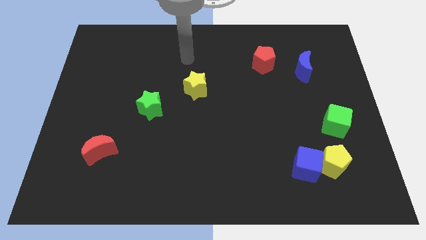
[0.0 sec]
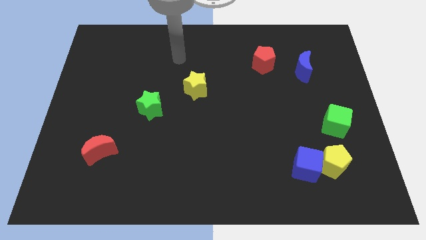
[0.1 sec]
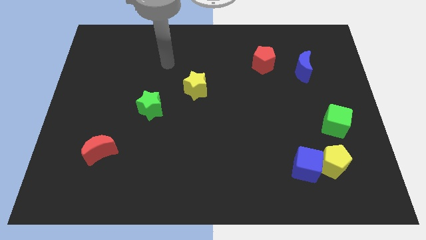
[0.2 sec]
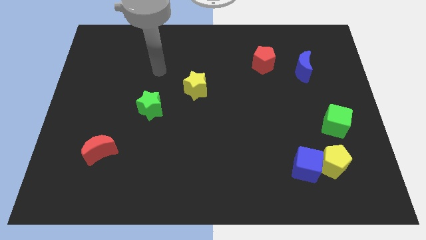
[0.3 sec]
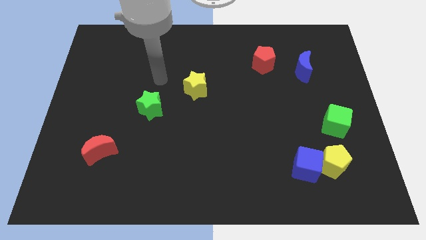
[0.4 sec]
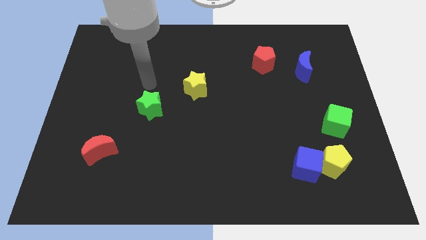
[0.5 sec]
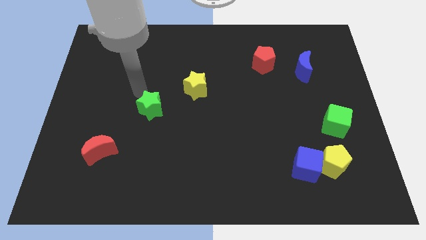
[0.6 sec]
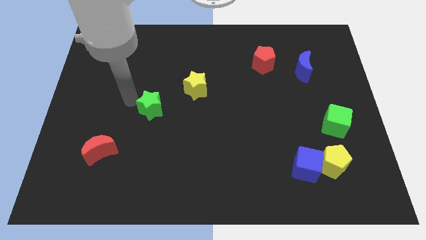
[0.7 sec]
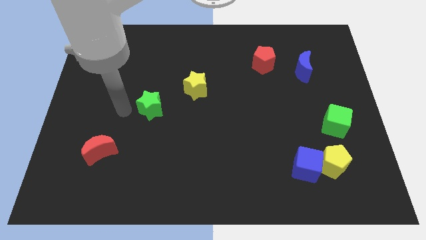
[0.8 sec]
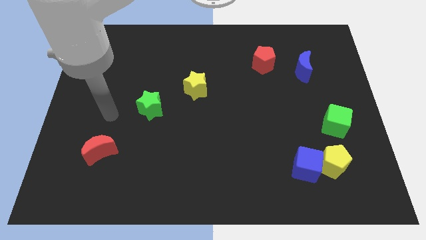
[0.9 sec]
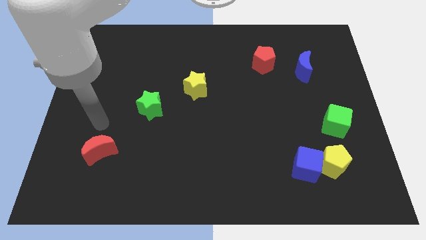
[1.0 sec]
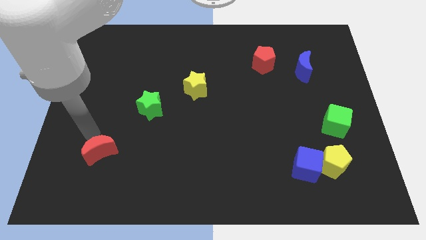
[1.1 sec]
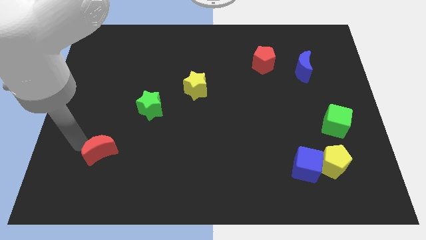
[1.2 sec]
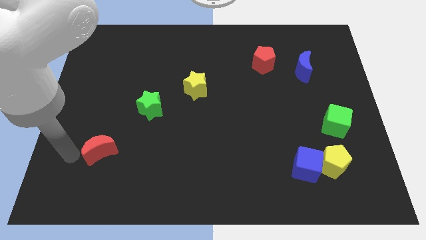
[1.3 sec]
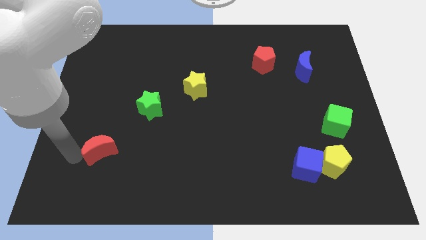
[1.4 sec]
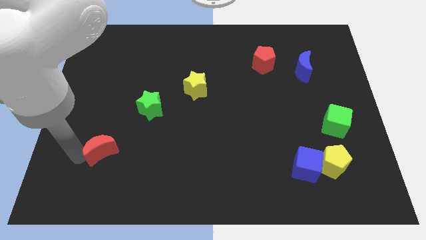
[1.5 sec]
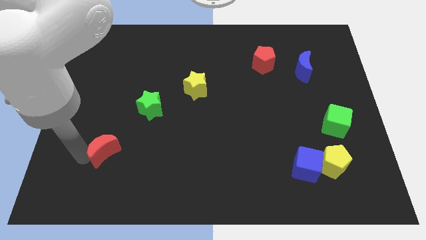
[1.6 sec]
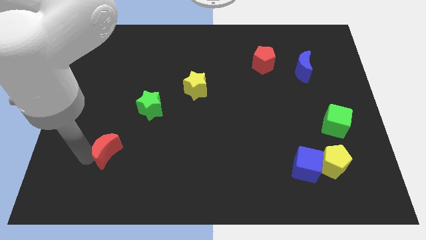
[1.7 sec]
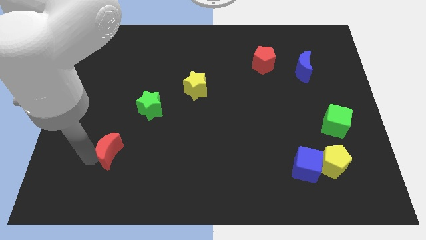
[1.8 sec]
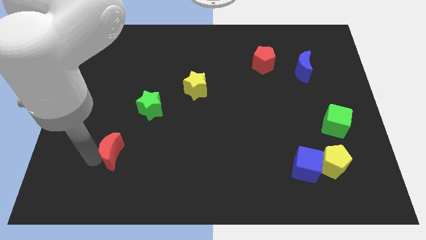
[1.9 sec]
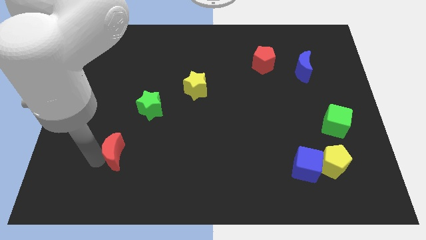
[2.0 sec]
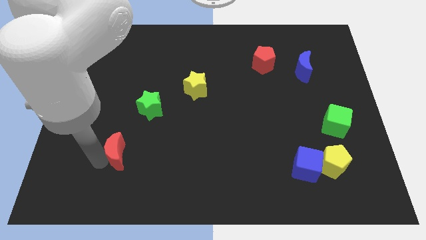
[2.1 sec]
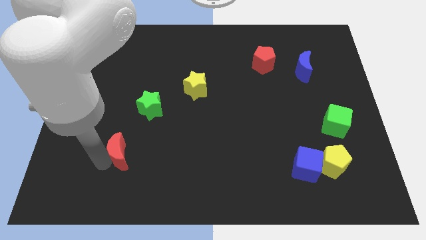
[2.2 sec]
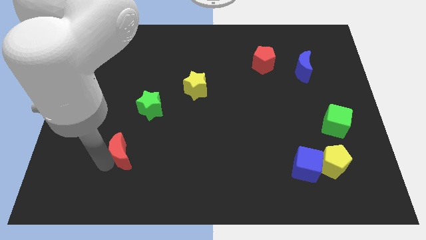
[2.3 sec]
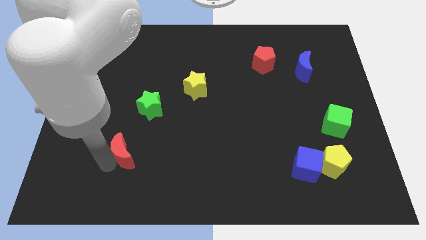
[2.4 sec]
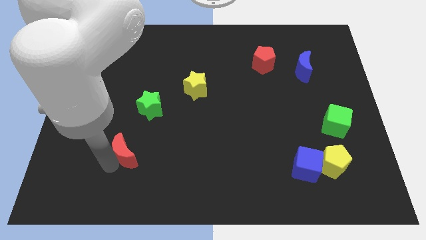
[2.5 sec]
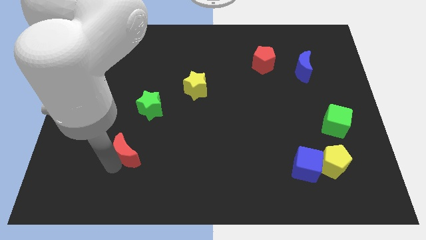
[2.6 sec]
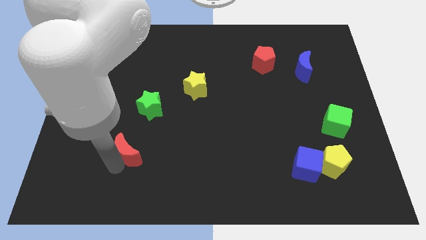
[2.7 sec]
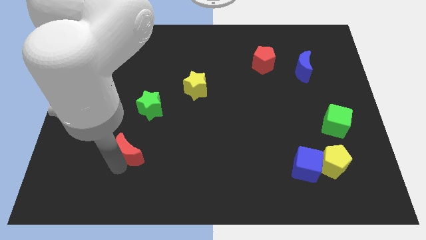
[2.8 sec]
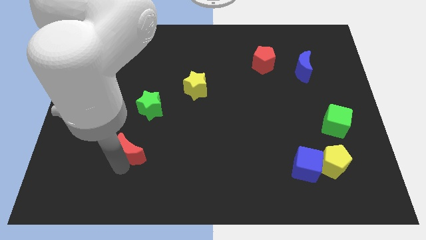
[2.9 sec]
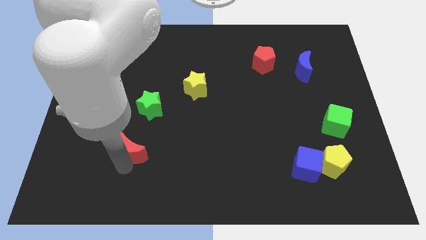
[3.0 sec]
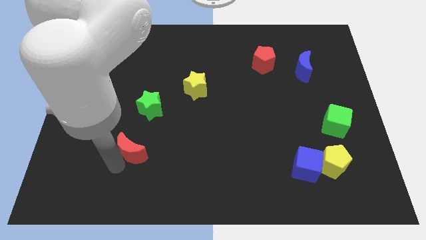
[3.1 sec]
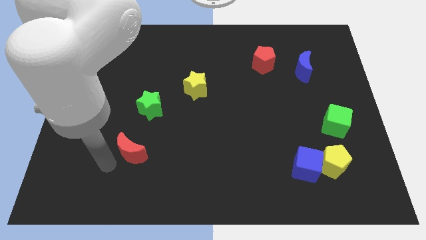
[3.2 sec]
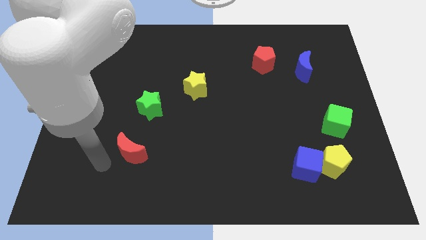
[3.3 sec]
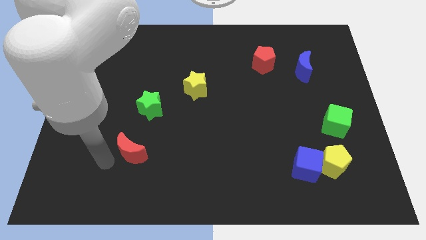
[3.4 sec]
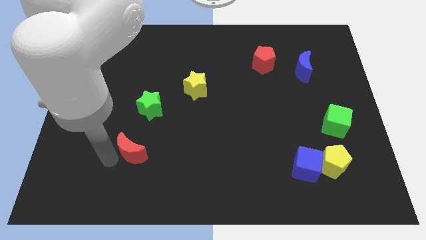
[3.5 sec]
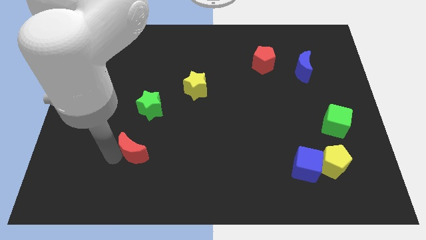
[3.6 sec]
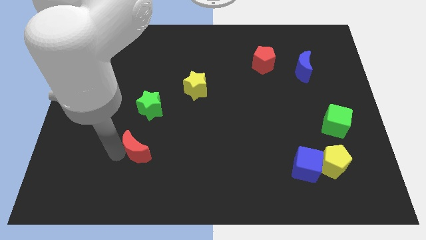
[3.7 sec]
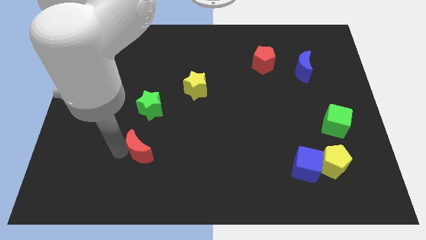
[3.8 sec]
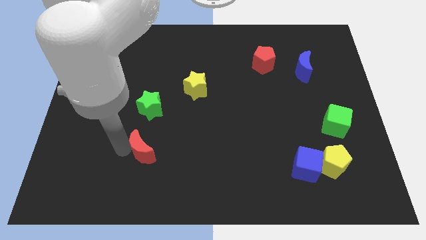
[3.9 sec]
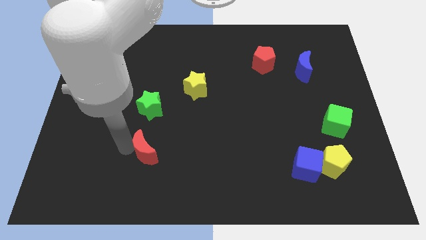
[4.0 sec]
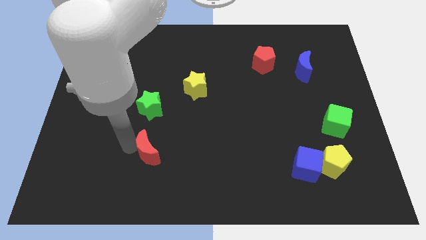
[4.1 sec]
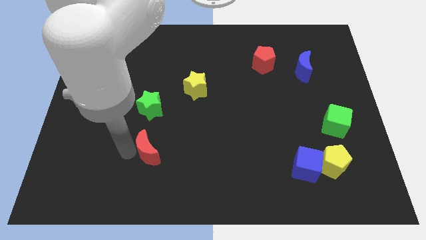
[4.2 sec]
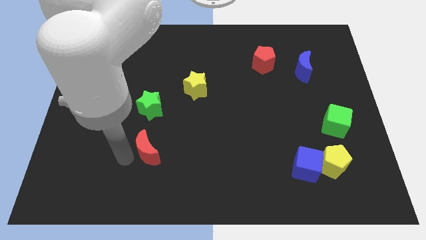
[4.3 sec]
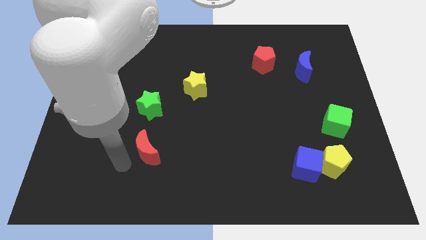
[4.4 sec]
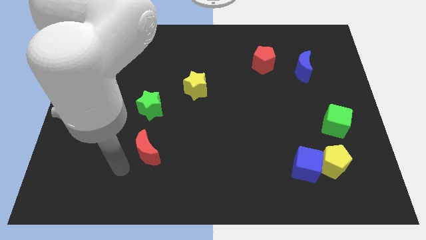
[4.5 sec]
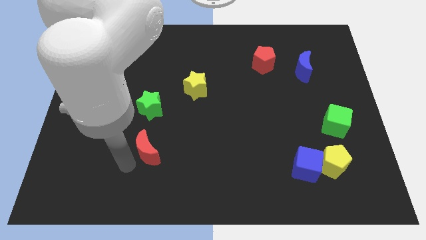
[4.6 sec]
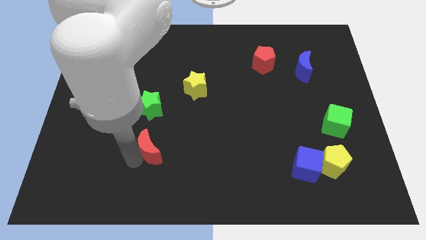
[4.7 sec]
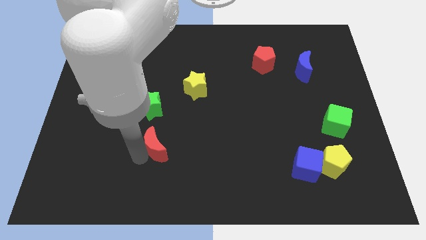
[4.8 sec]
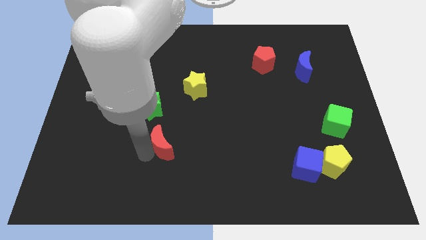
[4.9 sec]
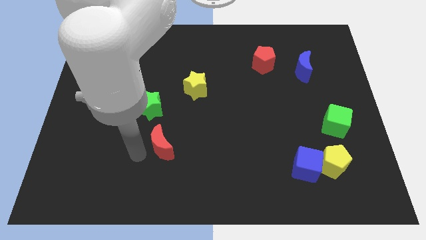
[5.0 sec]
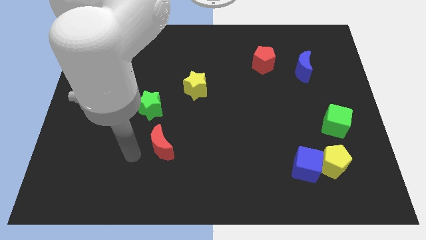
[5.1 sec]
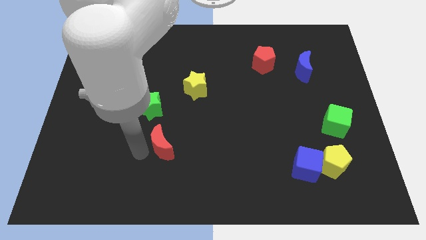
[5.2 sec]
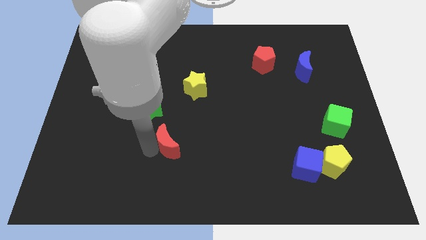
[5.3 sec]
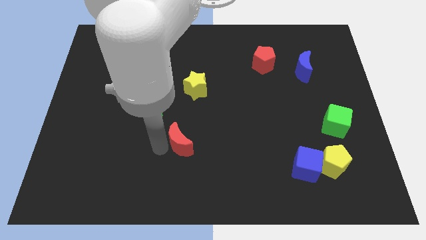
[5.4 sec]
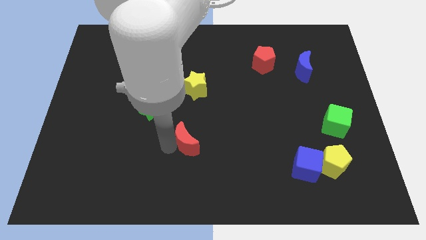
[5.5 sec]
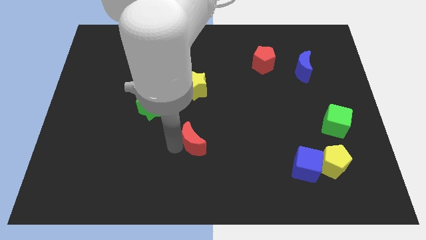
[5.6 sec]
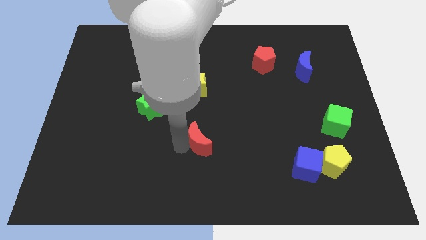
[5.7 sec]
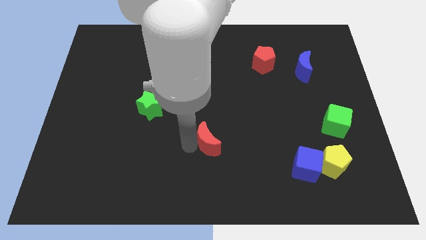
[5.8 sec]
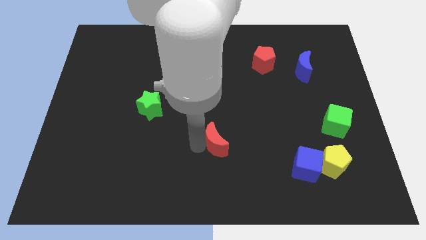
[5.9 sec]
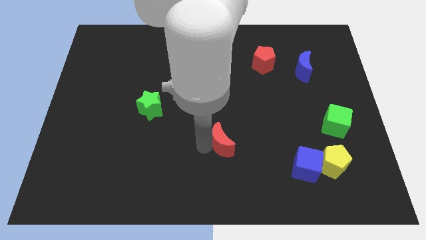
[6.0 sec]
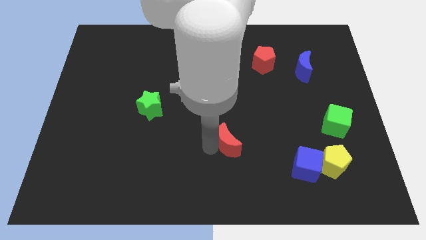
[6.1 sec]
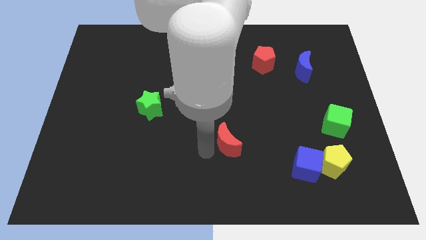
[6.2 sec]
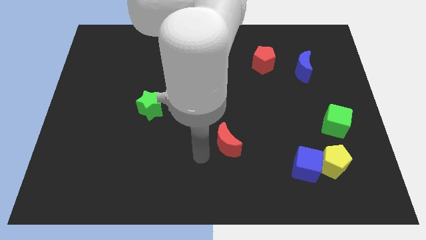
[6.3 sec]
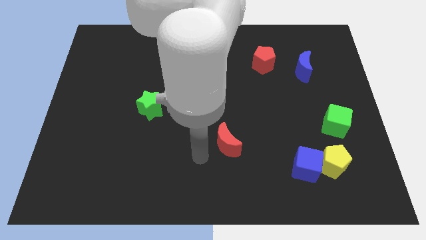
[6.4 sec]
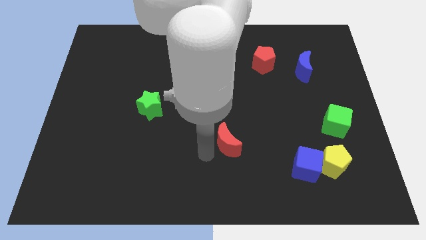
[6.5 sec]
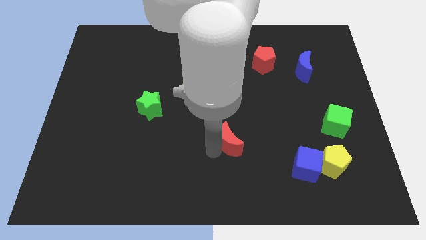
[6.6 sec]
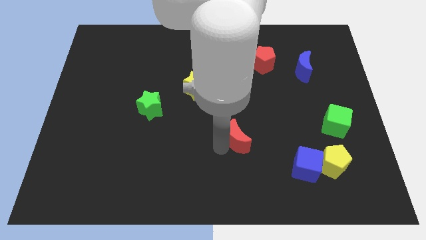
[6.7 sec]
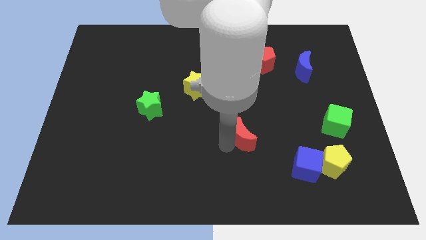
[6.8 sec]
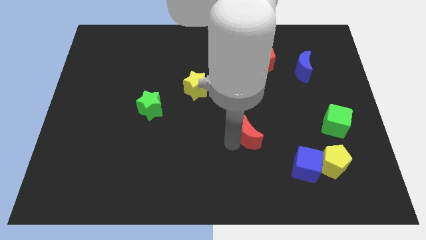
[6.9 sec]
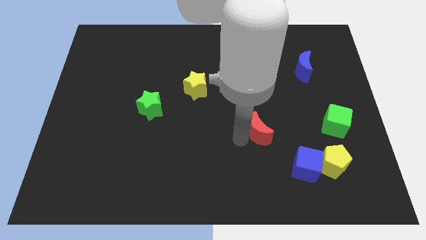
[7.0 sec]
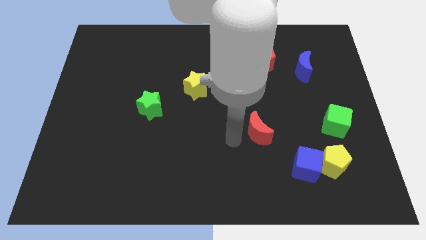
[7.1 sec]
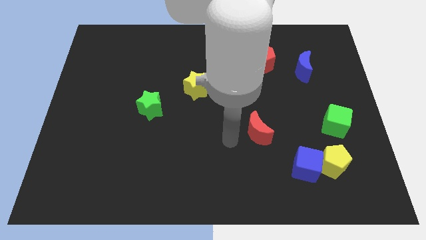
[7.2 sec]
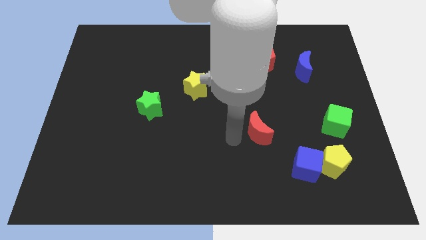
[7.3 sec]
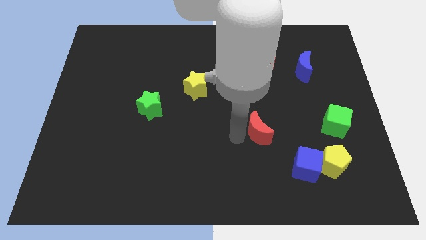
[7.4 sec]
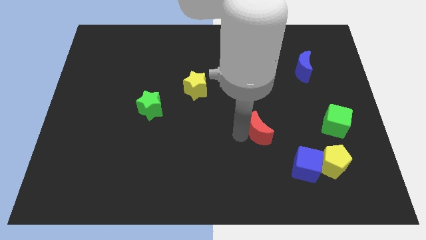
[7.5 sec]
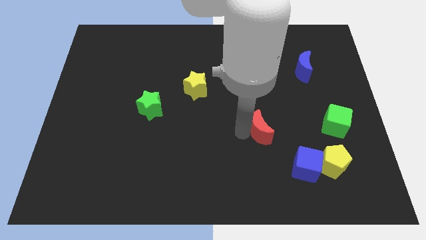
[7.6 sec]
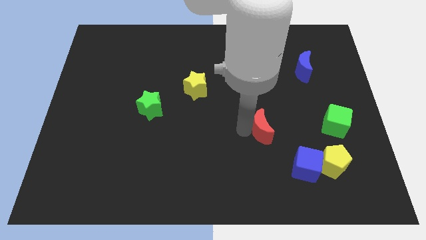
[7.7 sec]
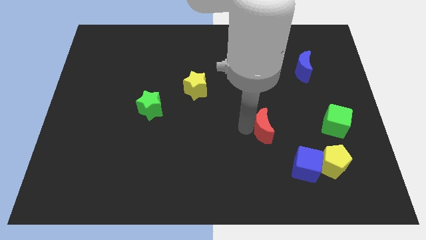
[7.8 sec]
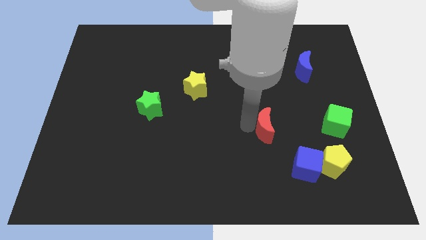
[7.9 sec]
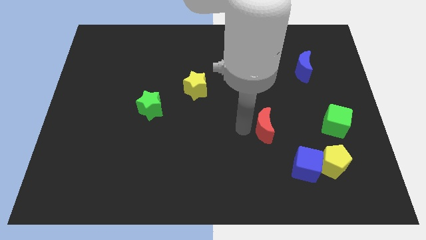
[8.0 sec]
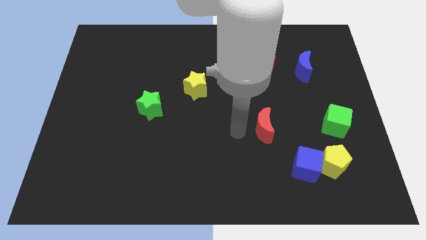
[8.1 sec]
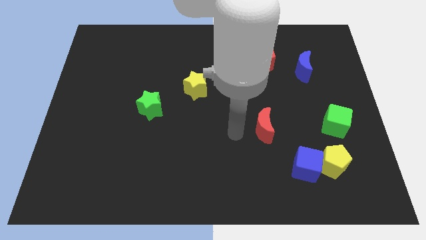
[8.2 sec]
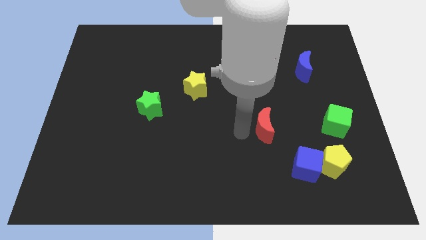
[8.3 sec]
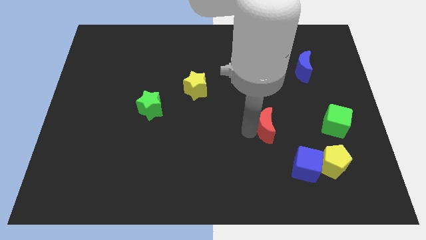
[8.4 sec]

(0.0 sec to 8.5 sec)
slide the red moon just left of the green cube
